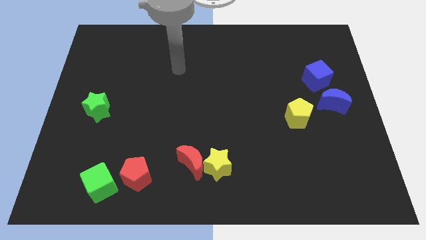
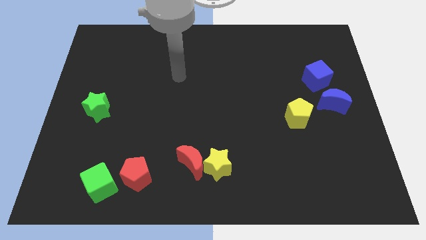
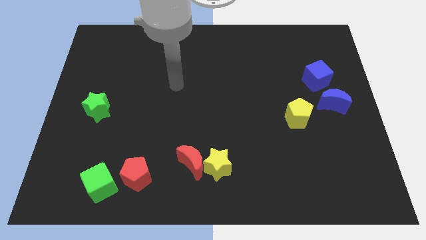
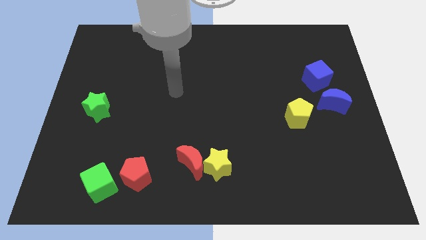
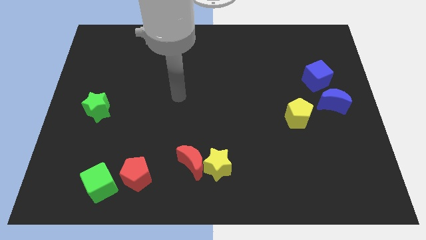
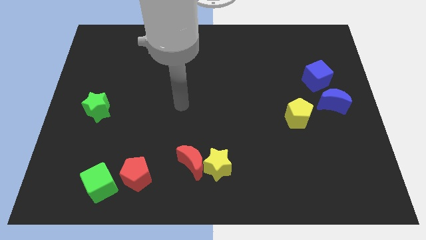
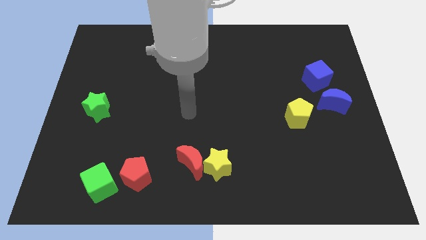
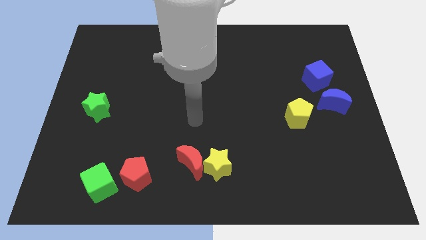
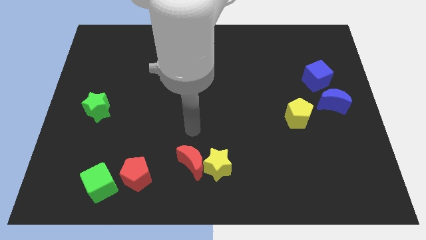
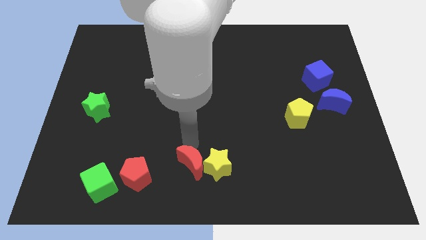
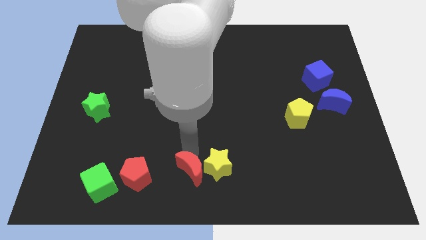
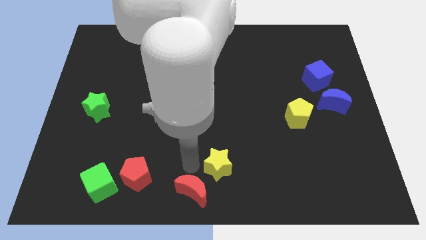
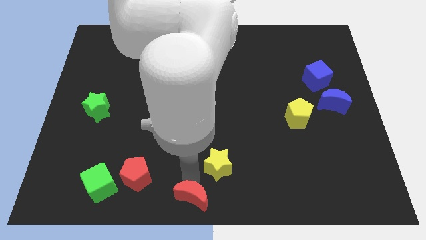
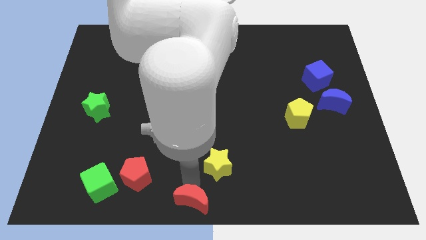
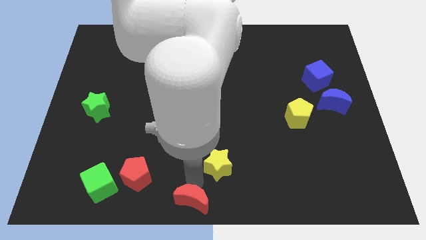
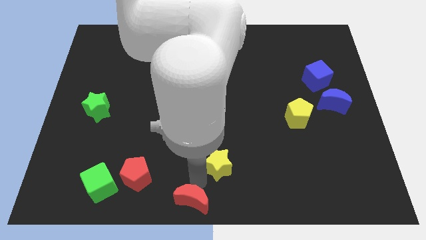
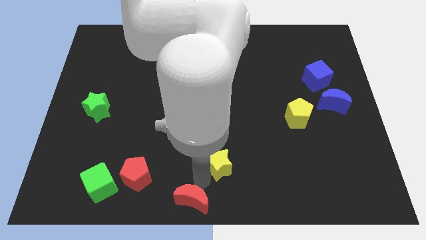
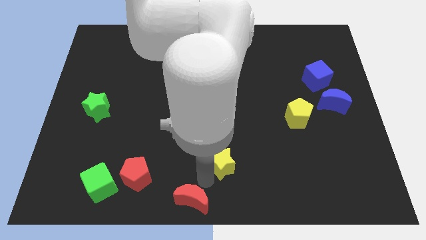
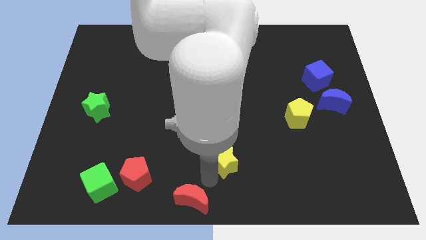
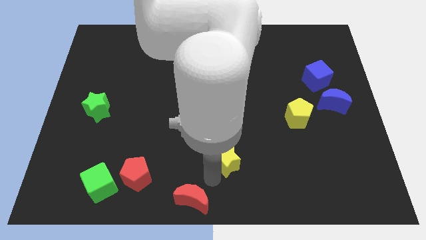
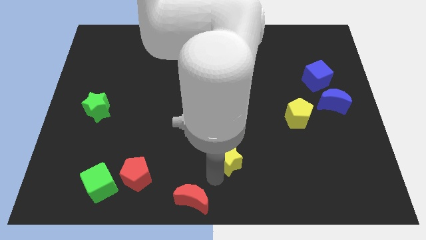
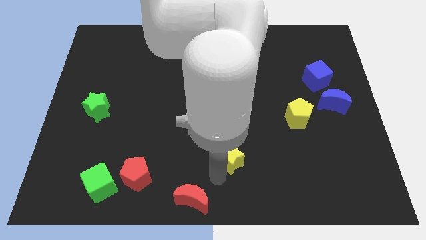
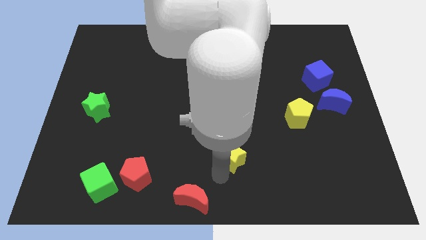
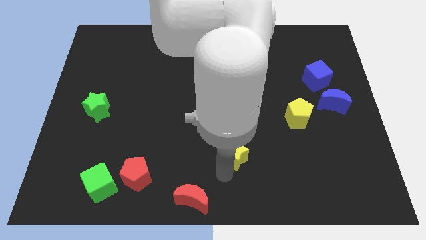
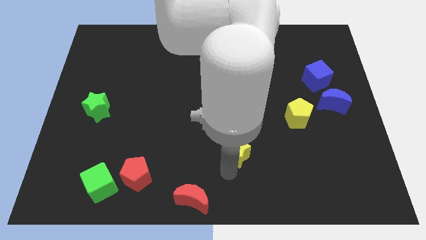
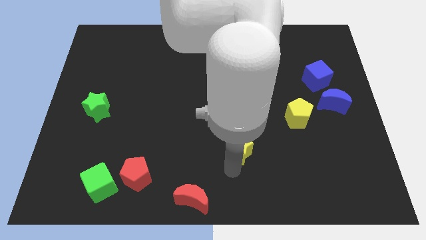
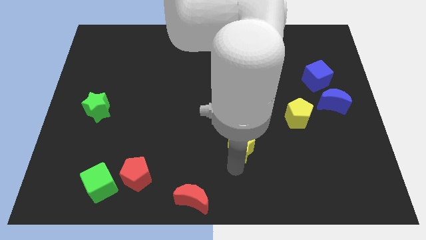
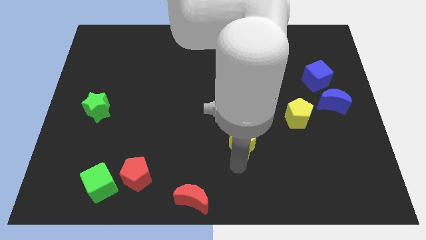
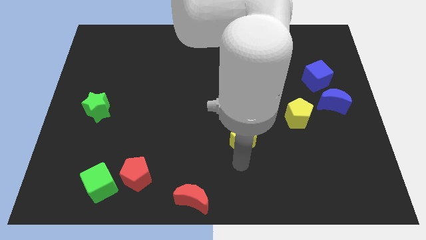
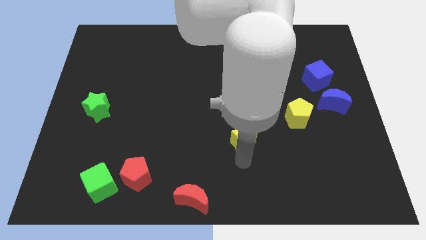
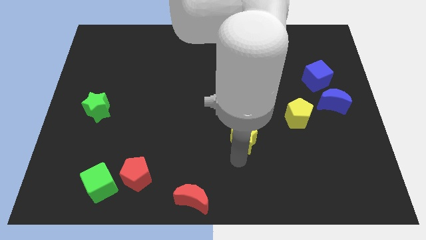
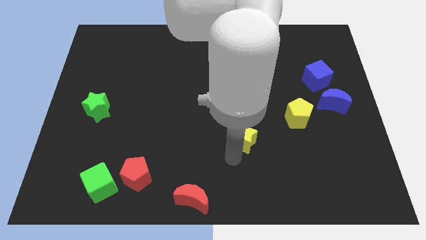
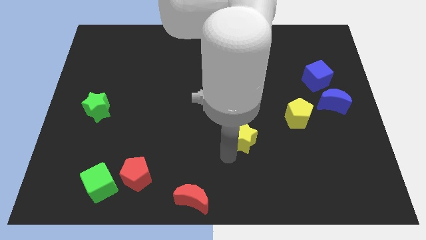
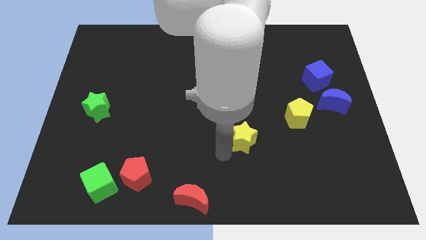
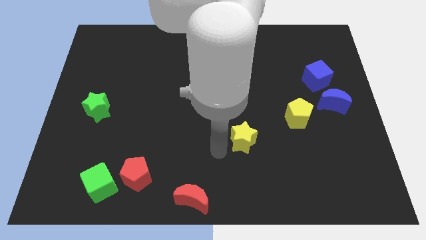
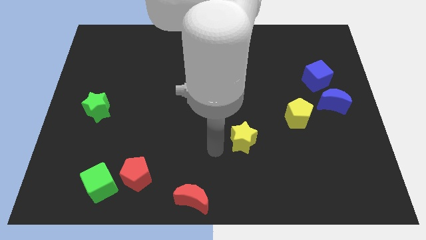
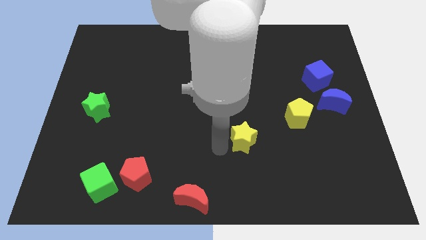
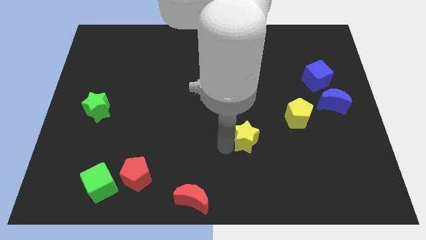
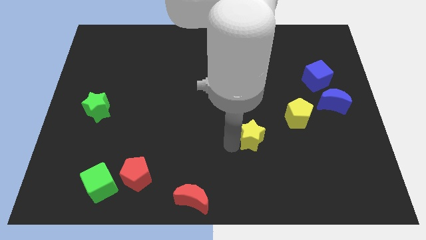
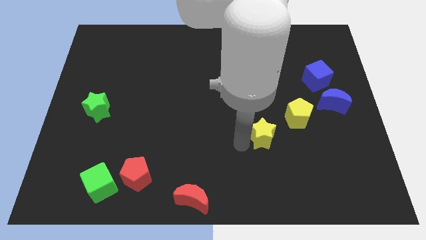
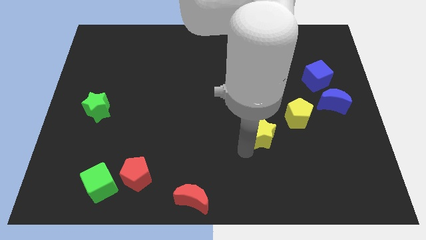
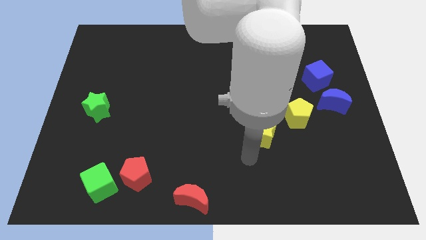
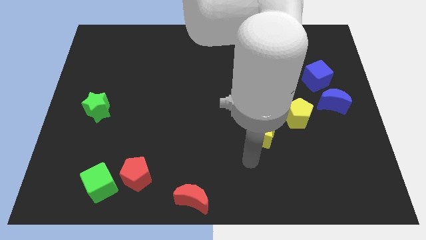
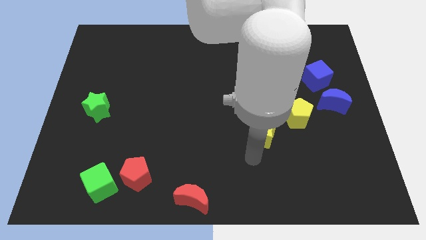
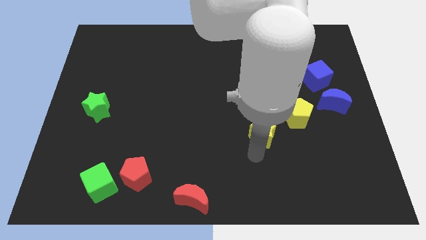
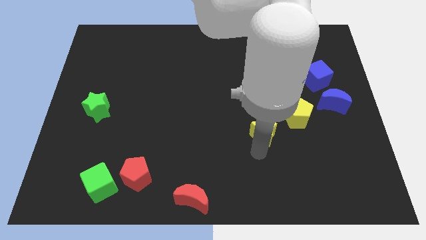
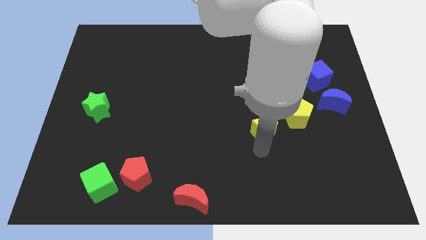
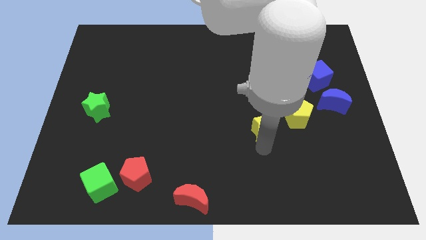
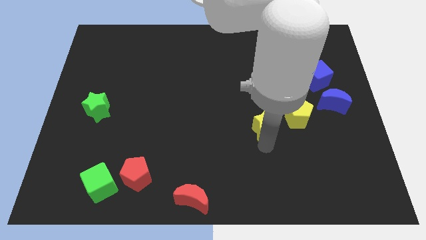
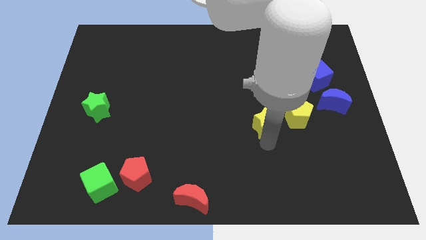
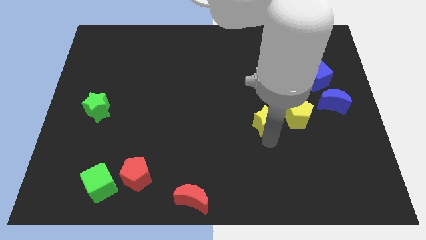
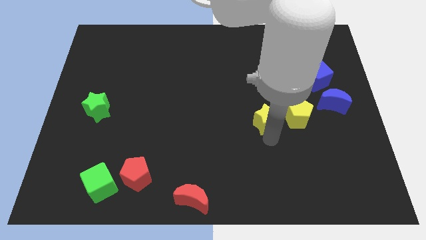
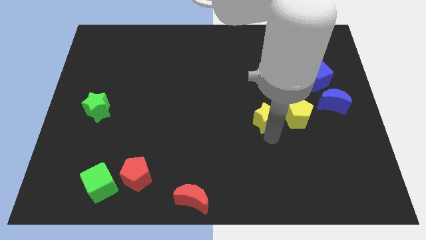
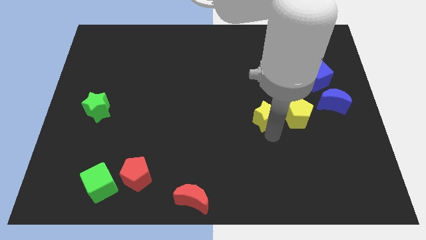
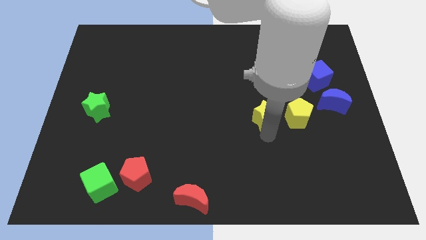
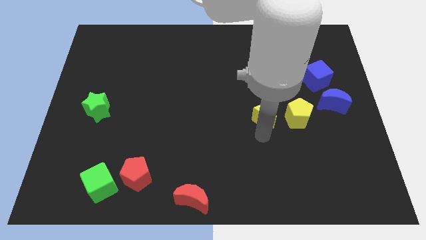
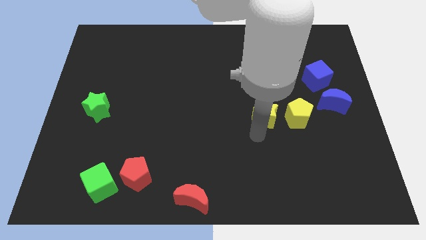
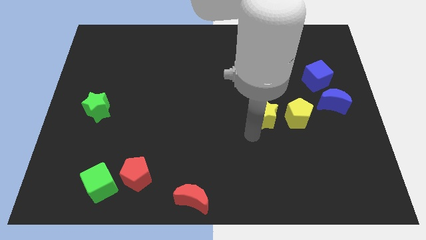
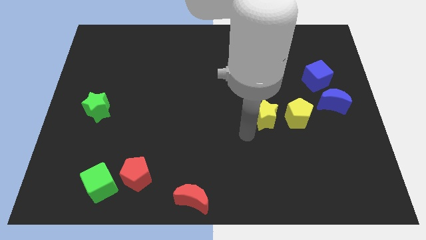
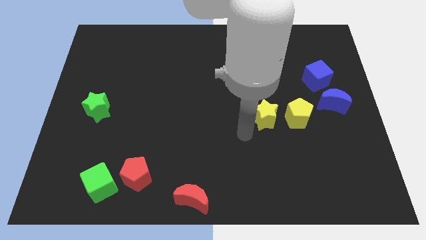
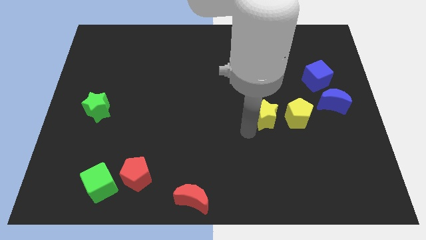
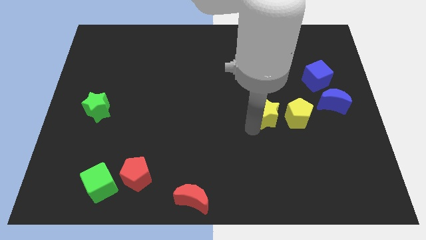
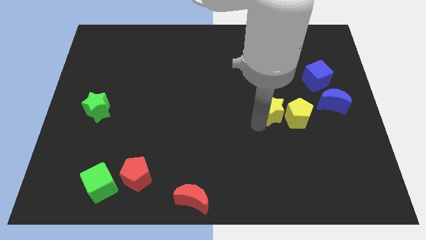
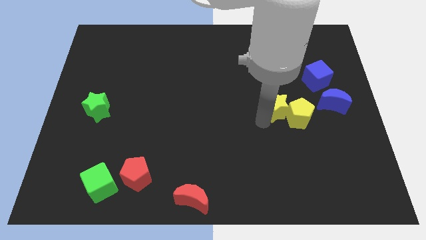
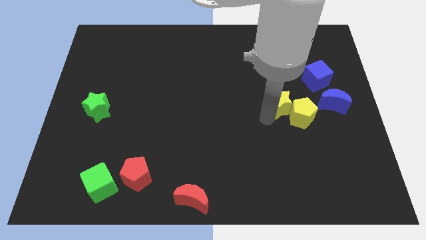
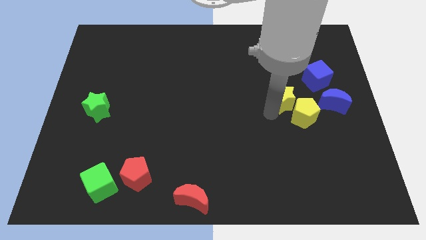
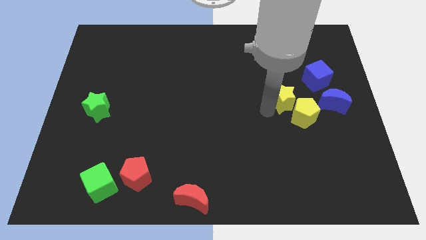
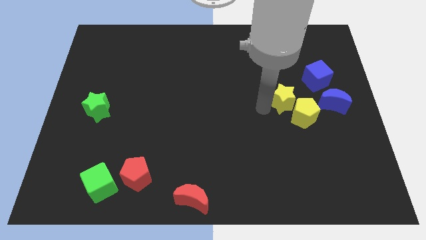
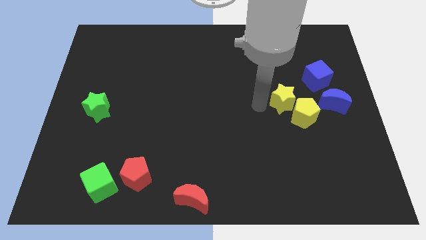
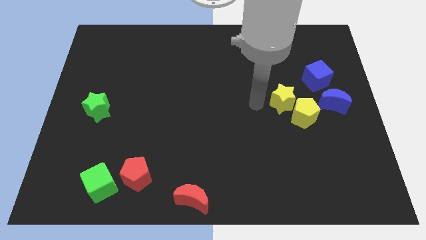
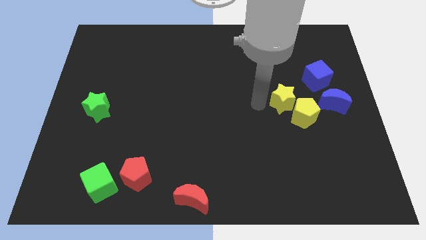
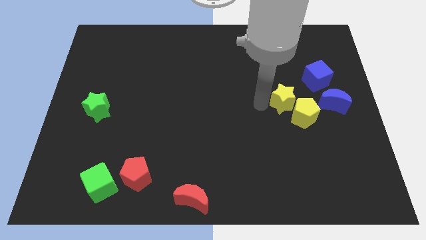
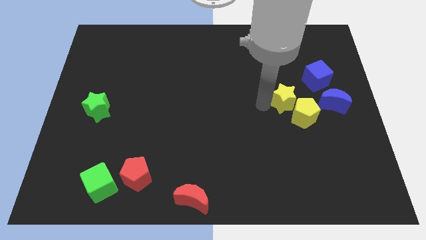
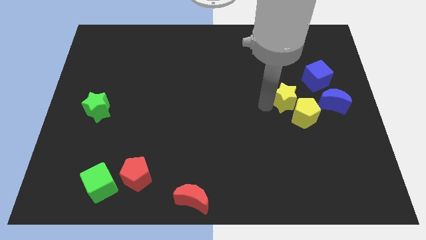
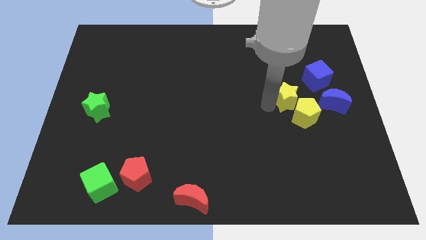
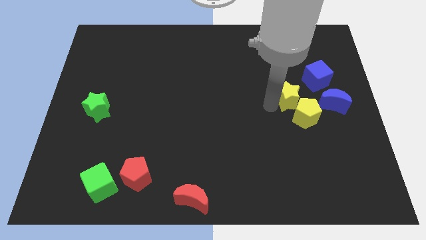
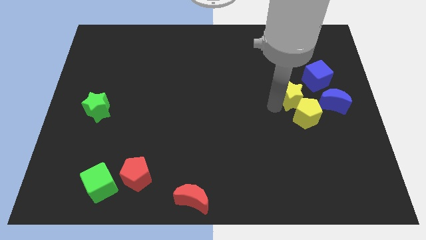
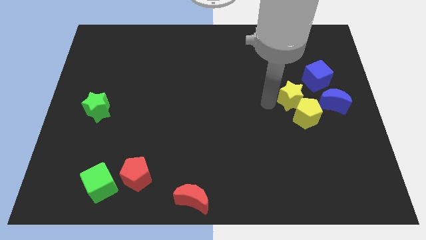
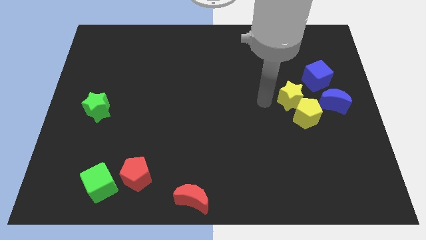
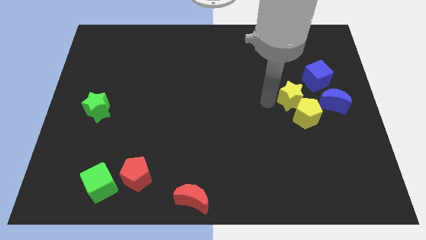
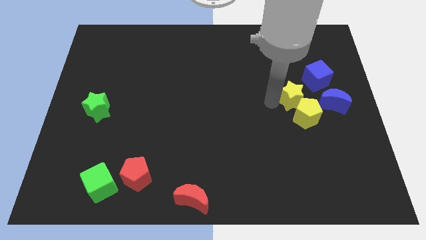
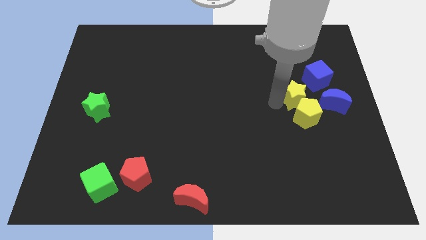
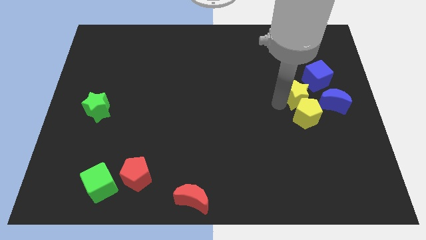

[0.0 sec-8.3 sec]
move the yellow star to the top right of the yellow pentagon
